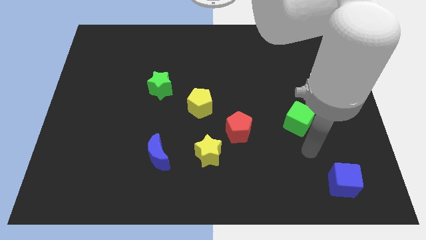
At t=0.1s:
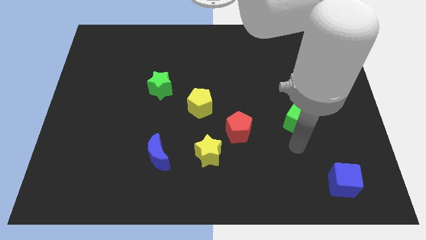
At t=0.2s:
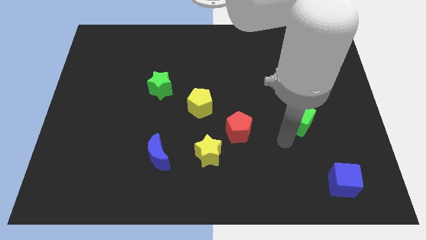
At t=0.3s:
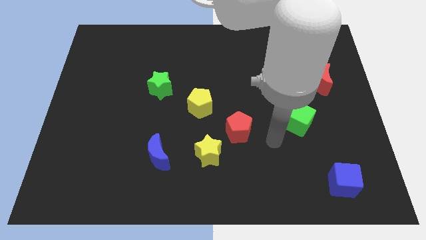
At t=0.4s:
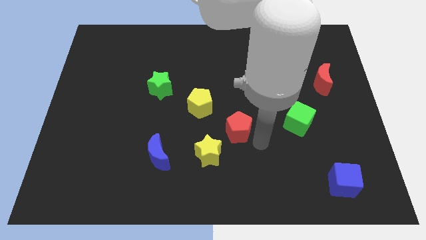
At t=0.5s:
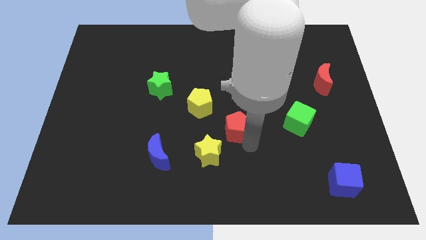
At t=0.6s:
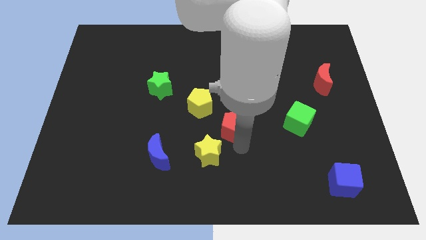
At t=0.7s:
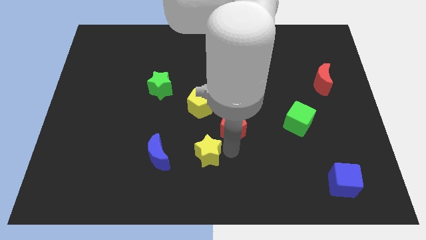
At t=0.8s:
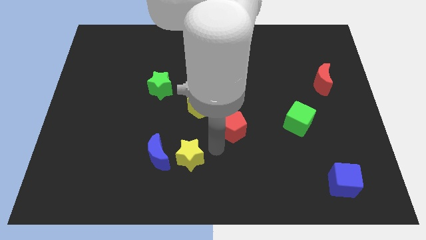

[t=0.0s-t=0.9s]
pull the red pentagon apart from the yellow star

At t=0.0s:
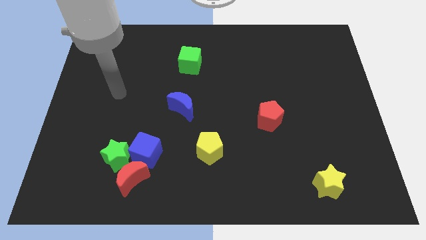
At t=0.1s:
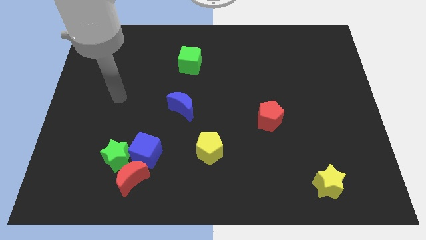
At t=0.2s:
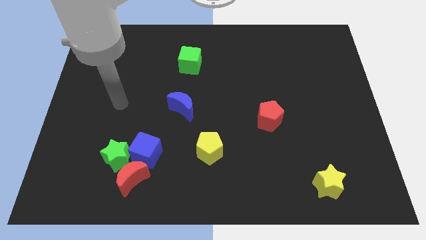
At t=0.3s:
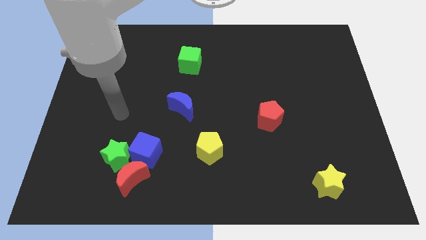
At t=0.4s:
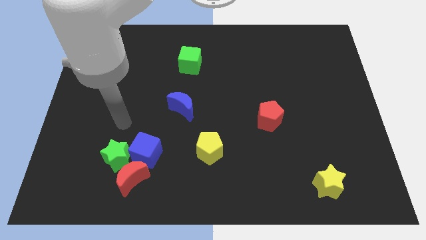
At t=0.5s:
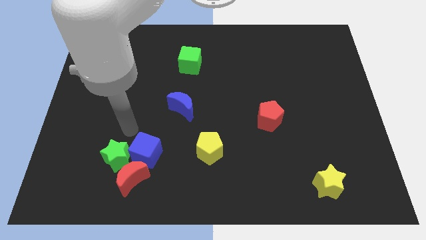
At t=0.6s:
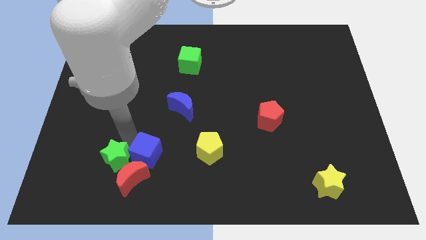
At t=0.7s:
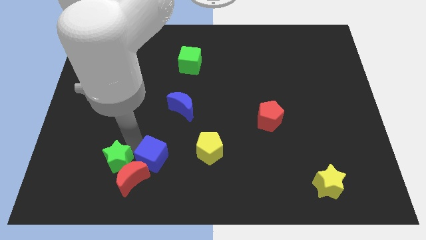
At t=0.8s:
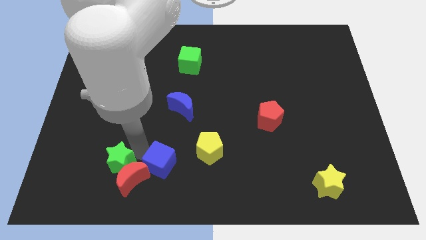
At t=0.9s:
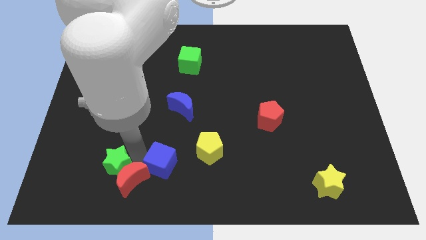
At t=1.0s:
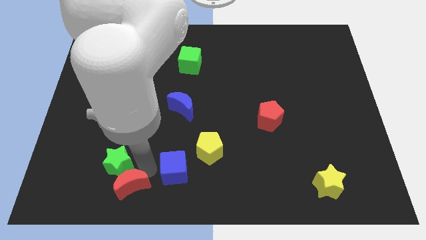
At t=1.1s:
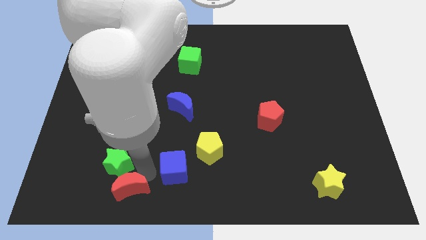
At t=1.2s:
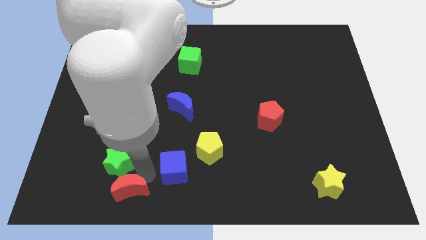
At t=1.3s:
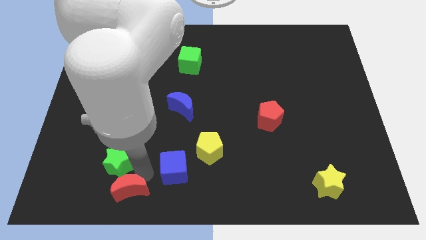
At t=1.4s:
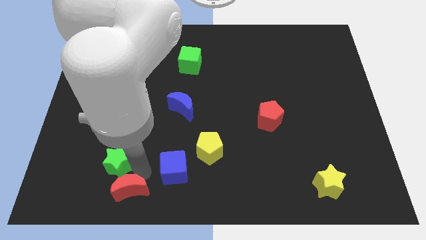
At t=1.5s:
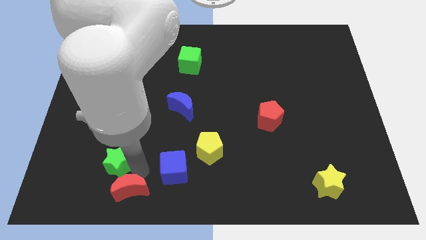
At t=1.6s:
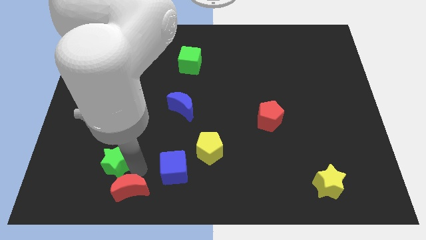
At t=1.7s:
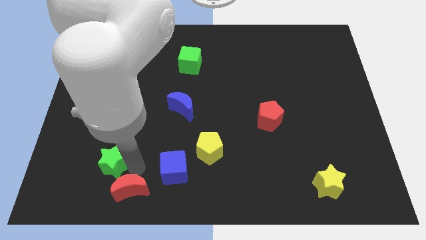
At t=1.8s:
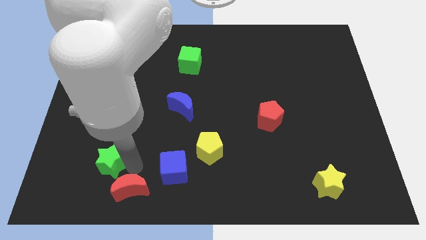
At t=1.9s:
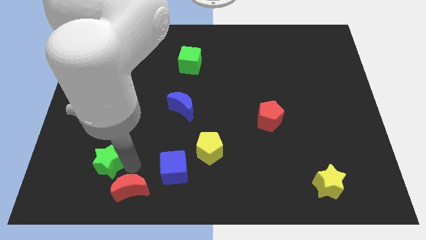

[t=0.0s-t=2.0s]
separate the green star from the red moon and blue cube

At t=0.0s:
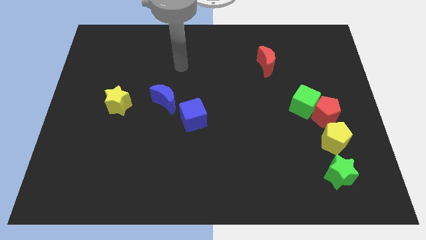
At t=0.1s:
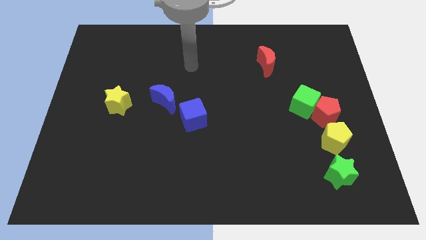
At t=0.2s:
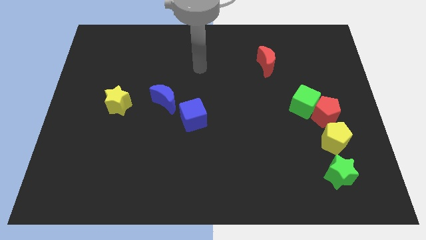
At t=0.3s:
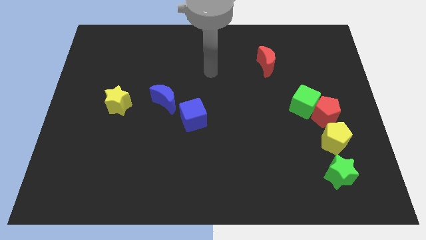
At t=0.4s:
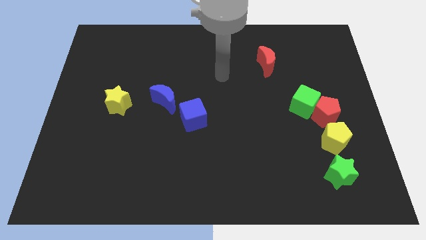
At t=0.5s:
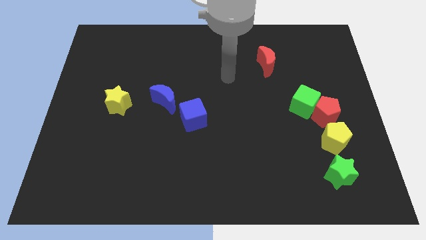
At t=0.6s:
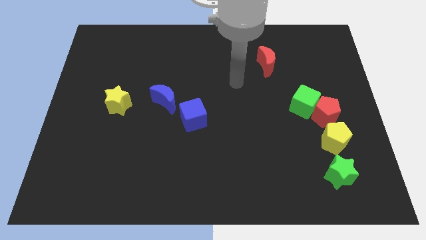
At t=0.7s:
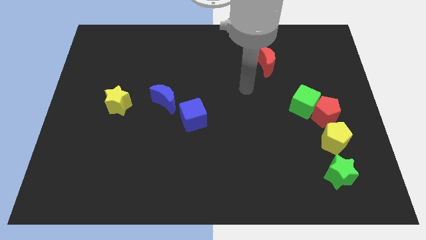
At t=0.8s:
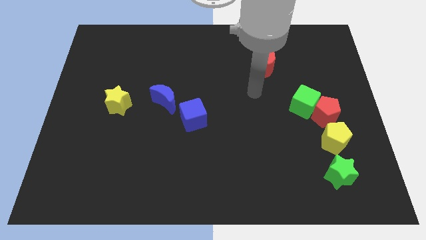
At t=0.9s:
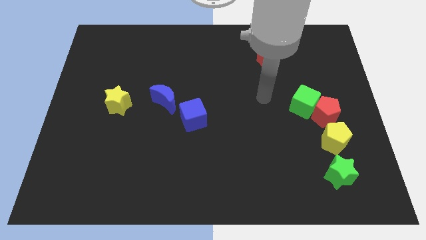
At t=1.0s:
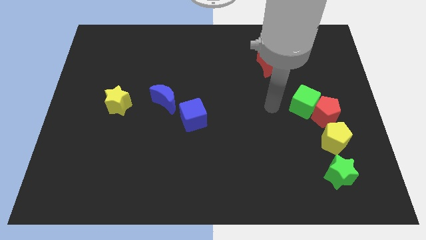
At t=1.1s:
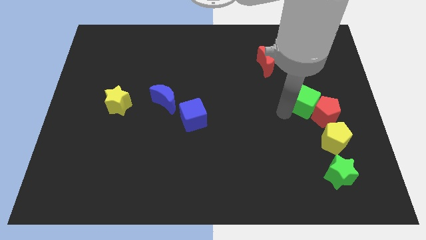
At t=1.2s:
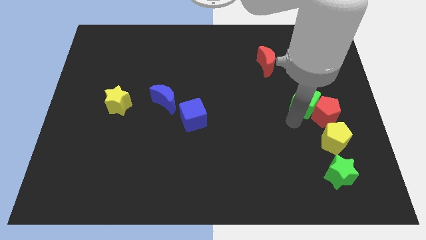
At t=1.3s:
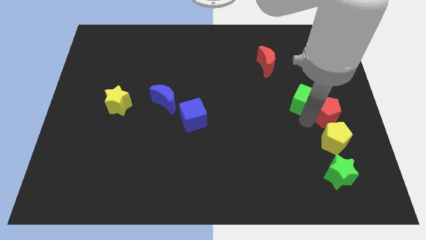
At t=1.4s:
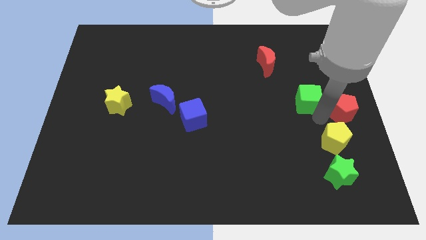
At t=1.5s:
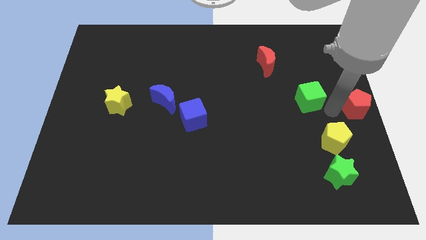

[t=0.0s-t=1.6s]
move the green cube away from the red pentagon

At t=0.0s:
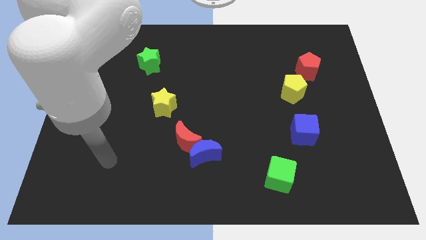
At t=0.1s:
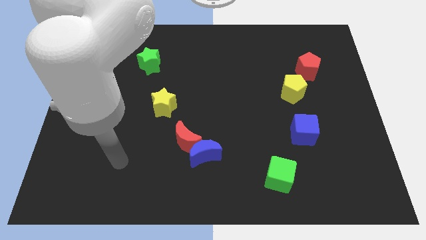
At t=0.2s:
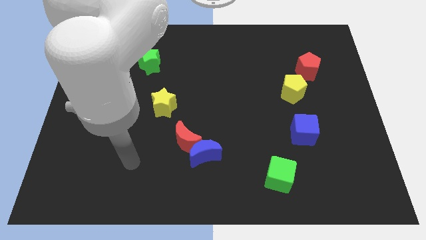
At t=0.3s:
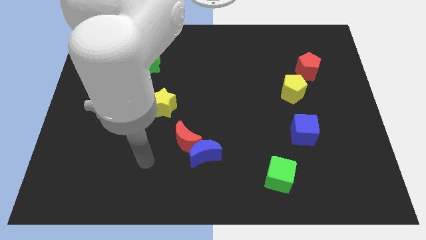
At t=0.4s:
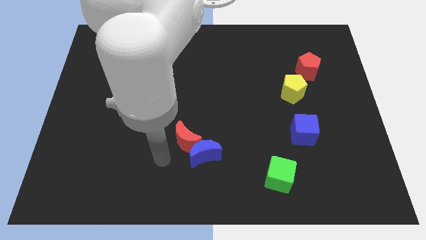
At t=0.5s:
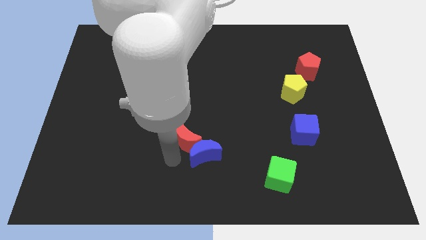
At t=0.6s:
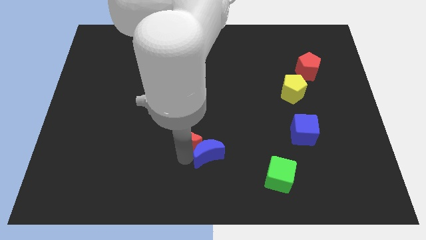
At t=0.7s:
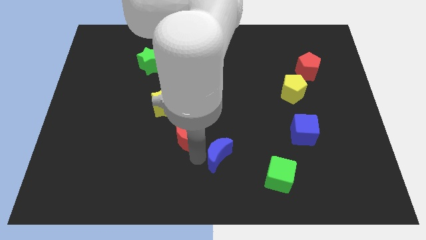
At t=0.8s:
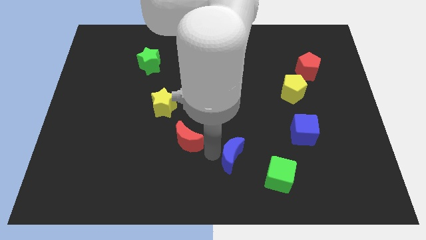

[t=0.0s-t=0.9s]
pull the red moon apart from the blue moon

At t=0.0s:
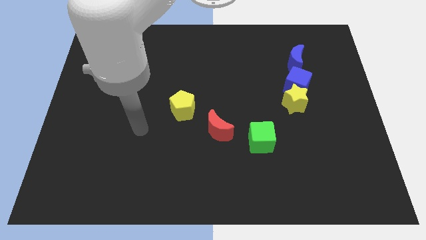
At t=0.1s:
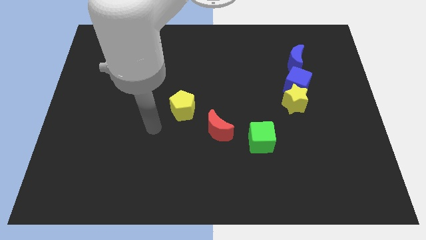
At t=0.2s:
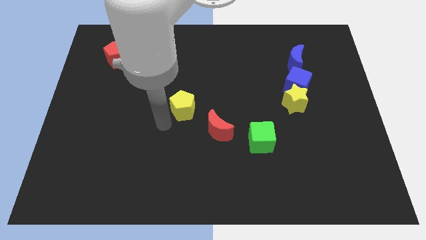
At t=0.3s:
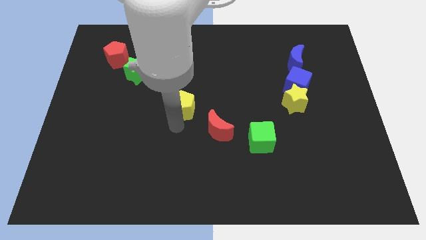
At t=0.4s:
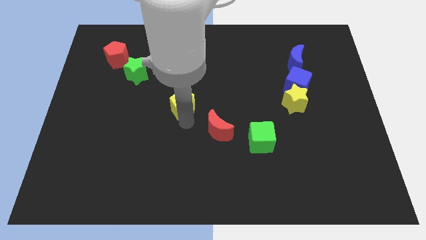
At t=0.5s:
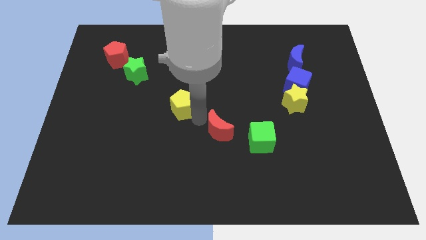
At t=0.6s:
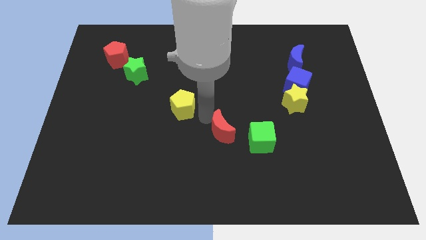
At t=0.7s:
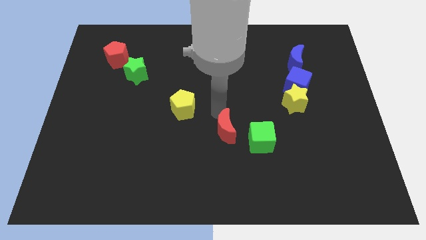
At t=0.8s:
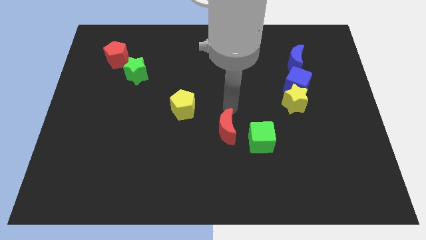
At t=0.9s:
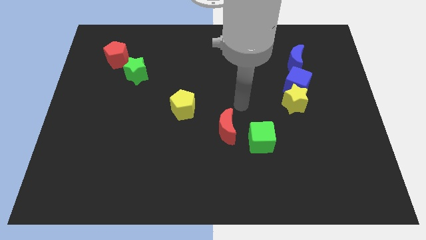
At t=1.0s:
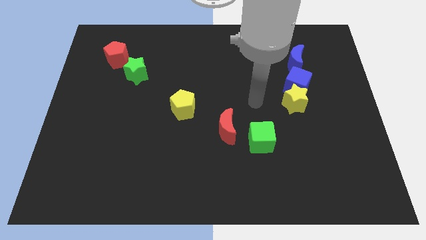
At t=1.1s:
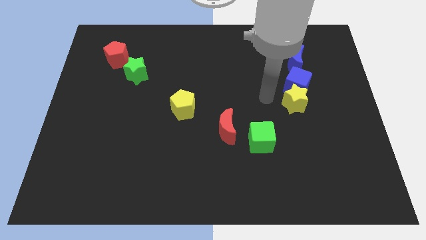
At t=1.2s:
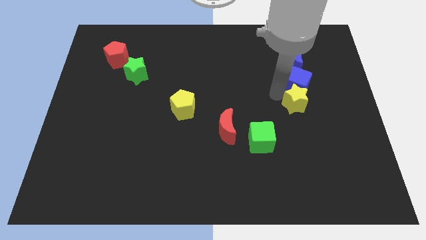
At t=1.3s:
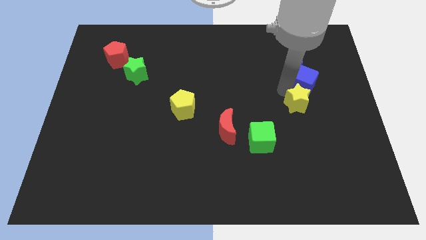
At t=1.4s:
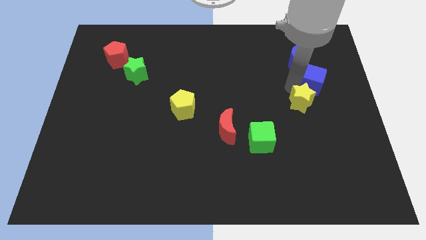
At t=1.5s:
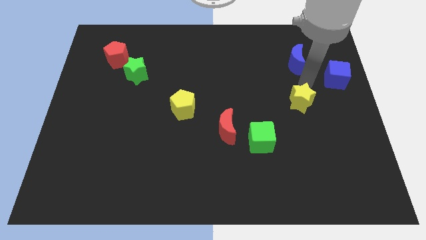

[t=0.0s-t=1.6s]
pull the yellow star apart from the blue cube

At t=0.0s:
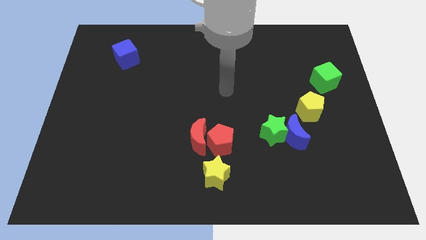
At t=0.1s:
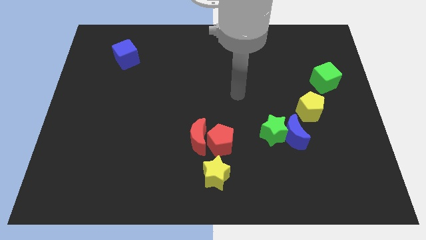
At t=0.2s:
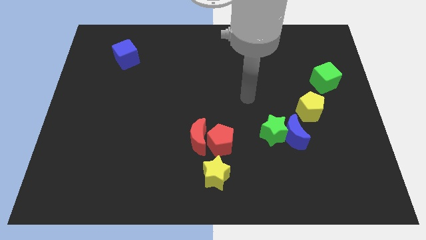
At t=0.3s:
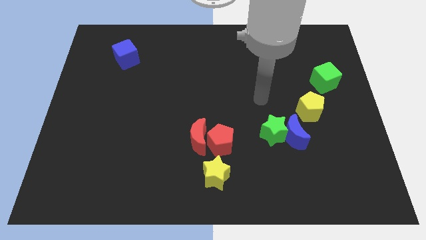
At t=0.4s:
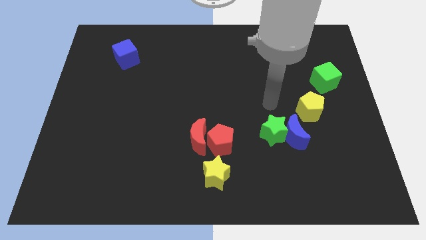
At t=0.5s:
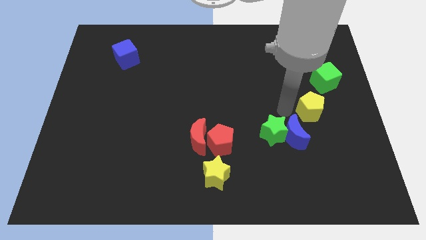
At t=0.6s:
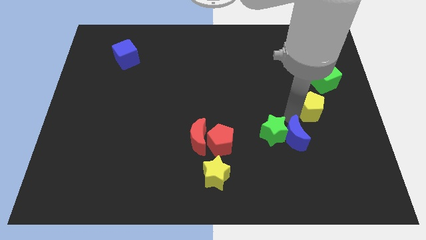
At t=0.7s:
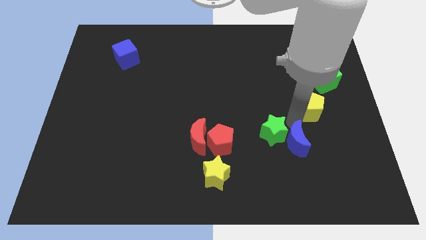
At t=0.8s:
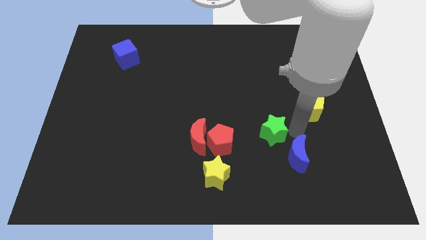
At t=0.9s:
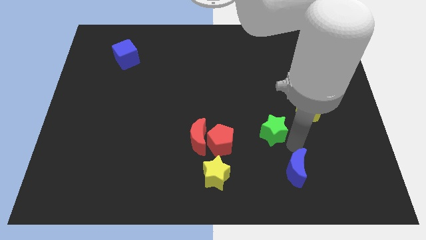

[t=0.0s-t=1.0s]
move the green star away from the blue moon

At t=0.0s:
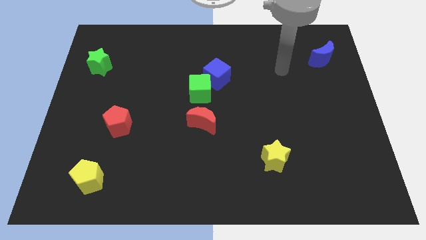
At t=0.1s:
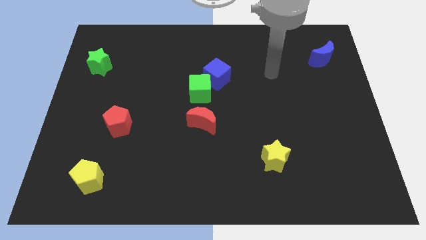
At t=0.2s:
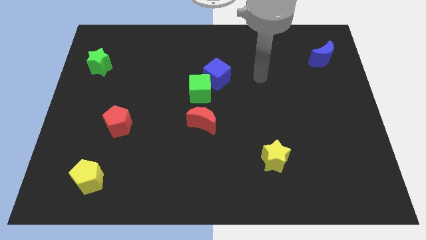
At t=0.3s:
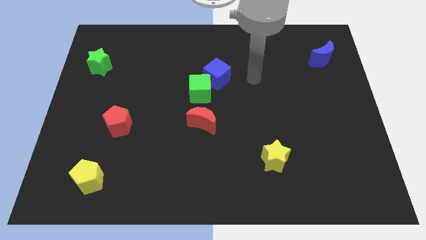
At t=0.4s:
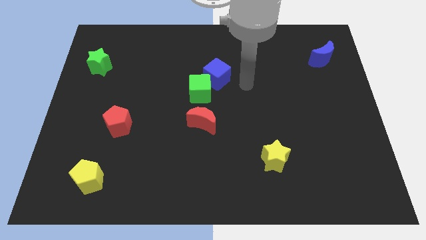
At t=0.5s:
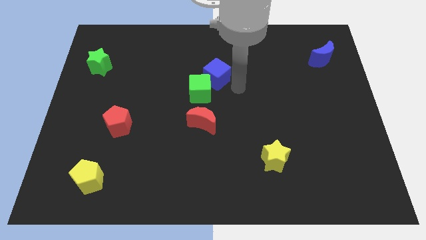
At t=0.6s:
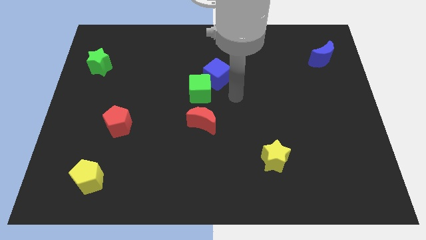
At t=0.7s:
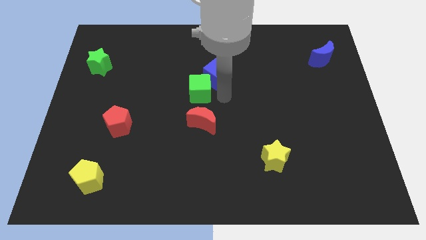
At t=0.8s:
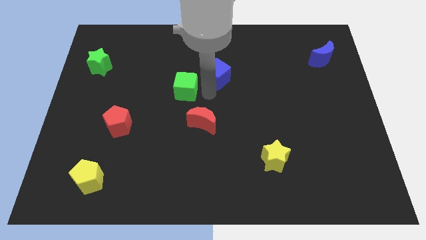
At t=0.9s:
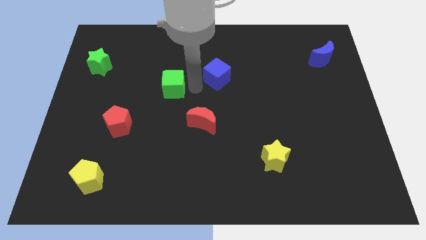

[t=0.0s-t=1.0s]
move the blue cube away from the green cube

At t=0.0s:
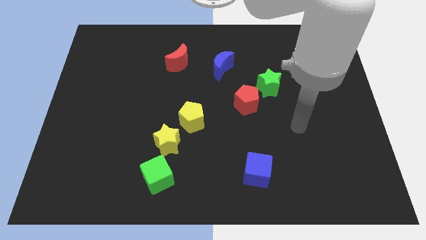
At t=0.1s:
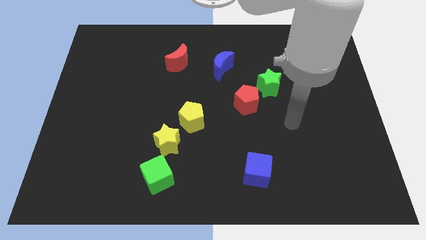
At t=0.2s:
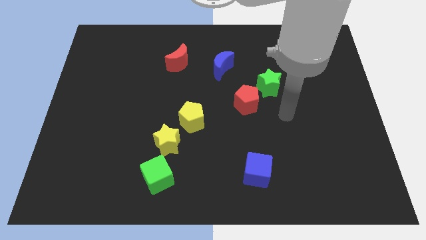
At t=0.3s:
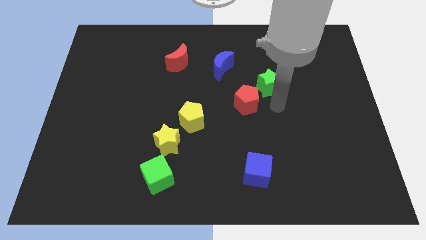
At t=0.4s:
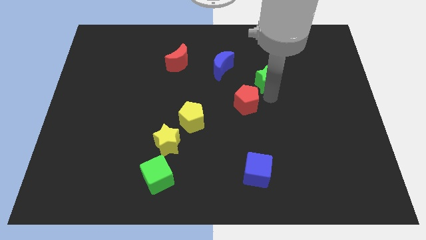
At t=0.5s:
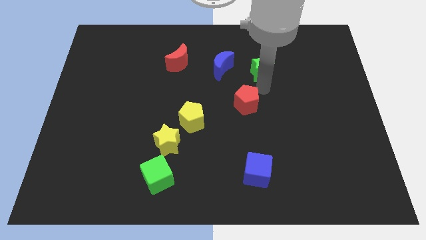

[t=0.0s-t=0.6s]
move the red pentagon away from the green star
